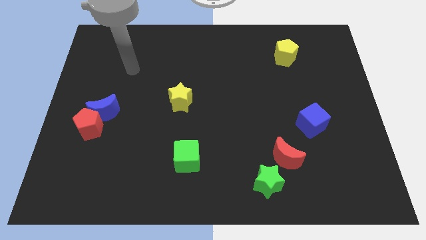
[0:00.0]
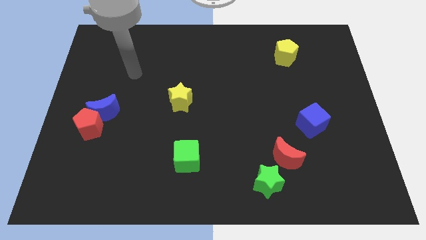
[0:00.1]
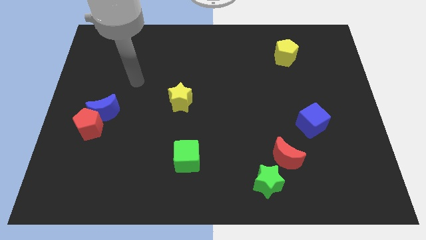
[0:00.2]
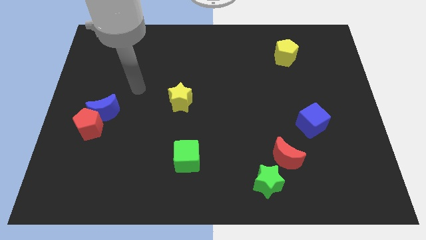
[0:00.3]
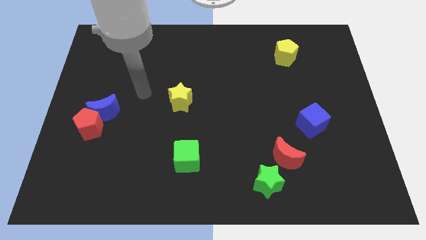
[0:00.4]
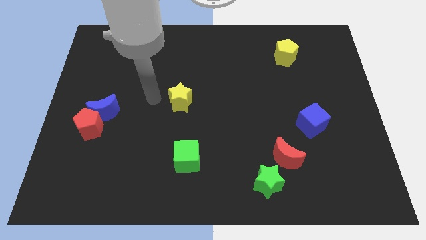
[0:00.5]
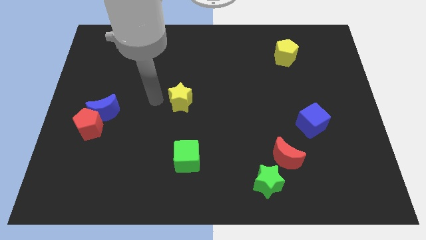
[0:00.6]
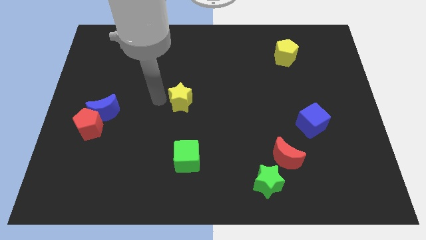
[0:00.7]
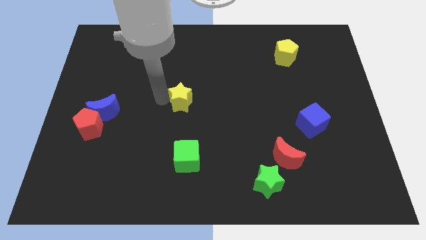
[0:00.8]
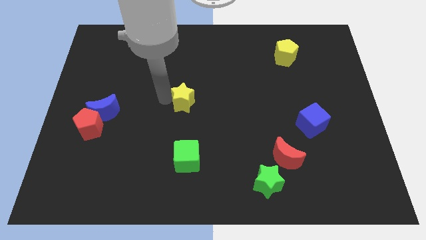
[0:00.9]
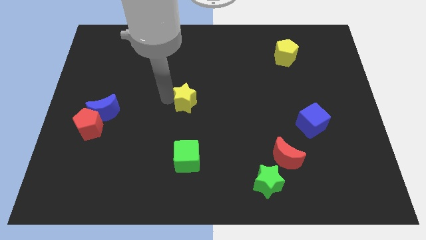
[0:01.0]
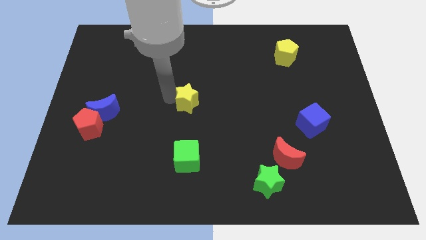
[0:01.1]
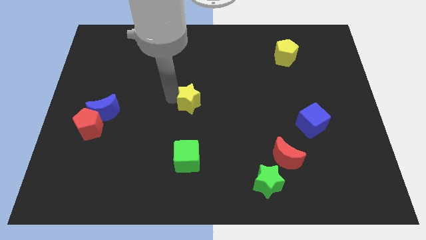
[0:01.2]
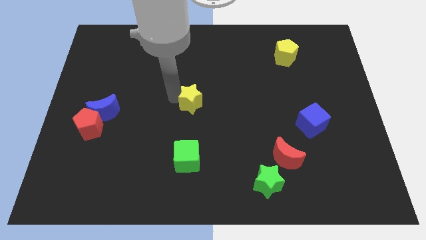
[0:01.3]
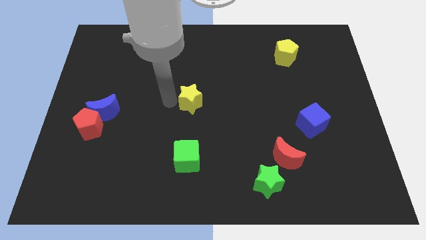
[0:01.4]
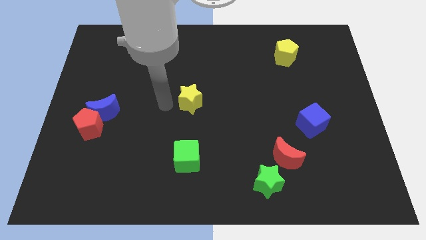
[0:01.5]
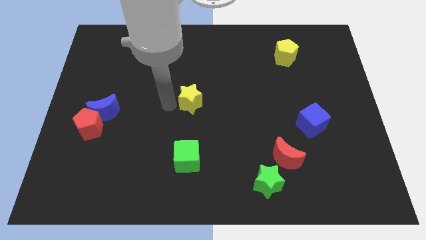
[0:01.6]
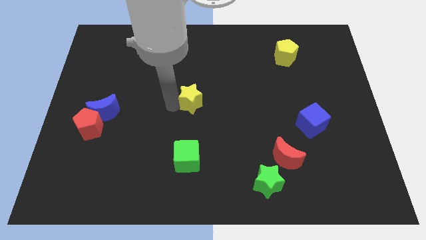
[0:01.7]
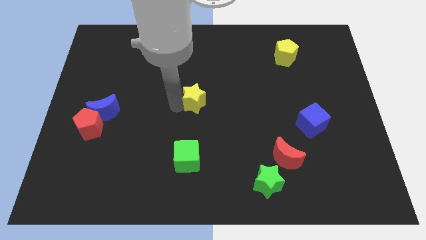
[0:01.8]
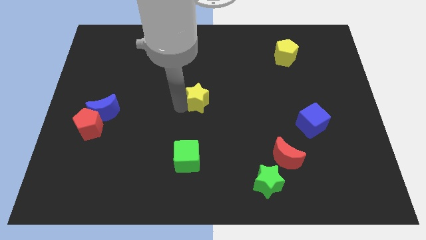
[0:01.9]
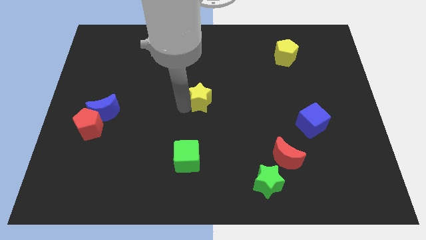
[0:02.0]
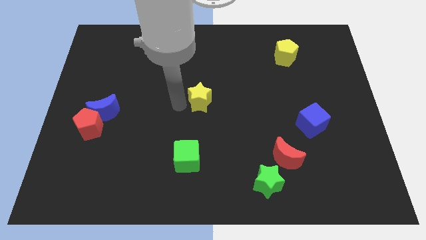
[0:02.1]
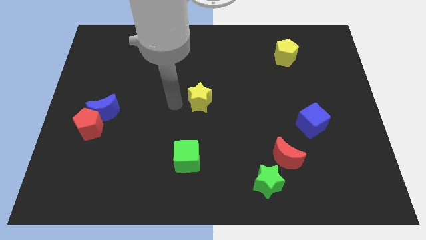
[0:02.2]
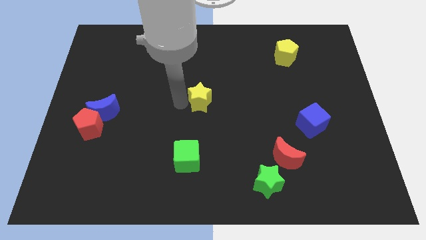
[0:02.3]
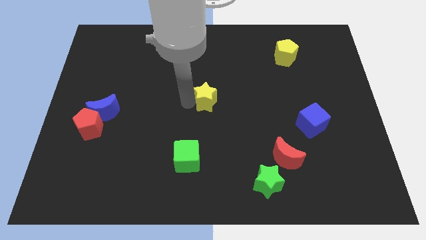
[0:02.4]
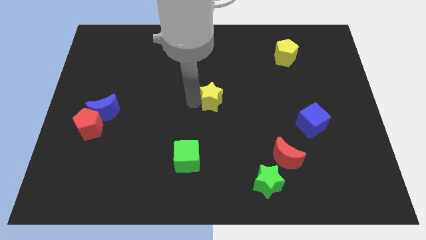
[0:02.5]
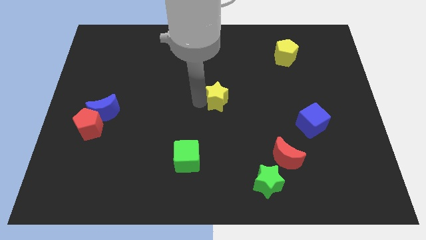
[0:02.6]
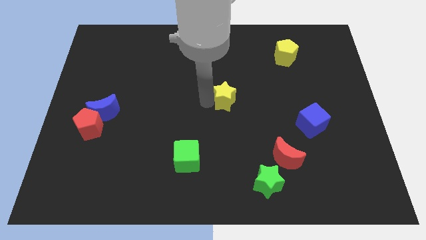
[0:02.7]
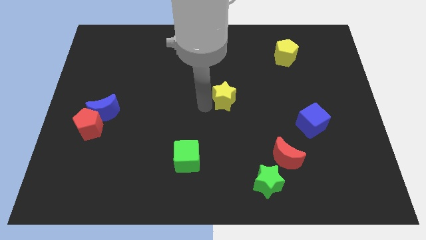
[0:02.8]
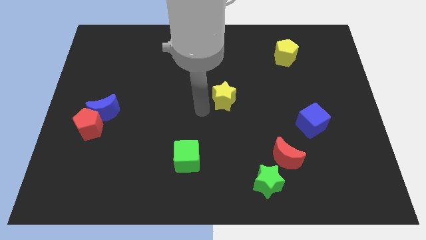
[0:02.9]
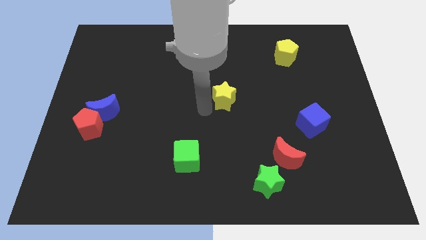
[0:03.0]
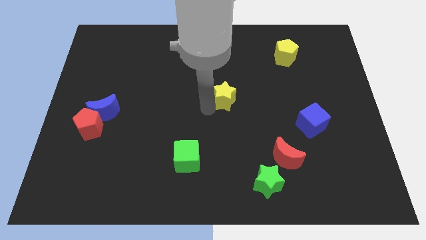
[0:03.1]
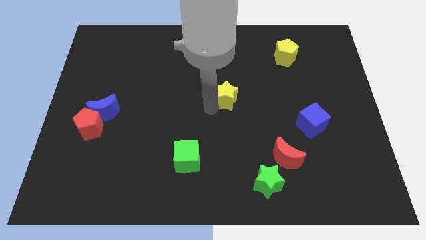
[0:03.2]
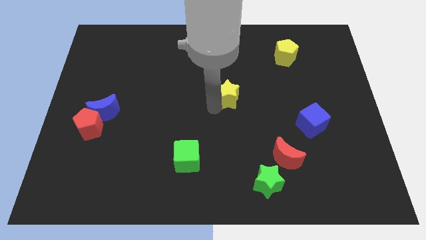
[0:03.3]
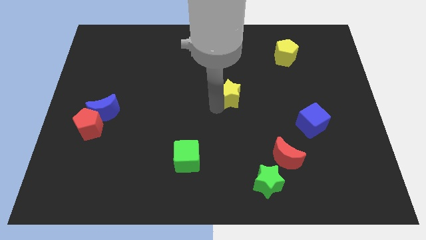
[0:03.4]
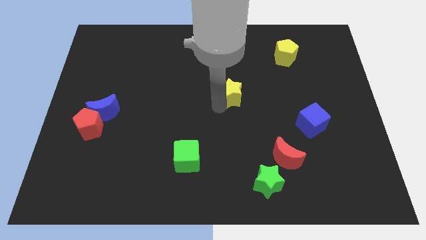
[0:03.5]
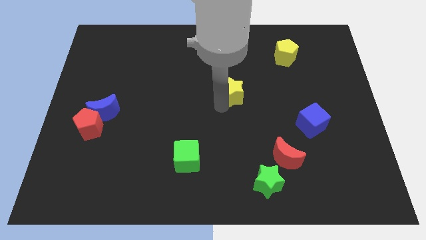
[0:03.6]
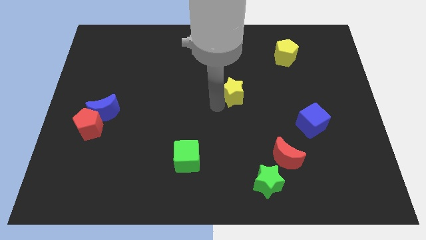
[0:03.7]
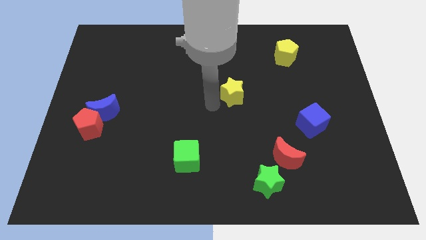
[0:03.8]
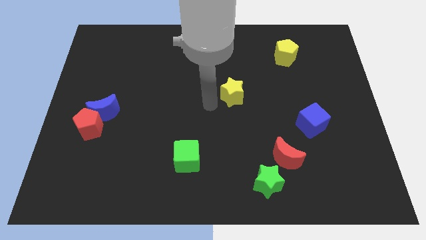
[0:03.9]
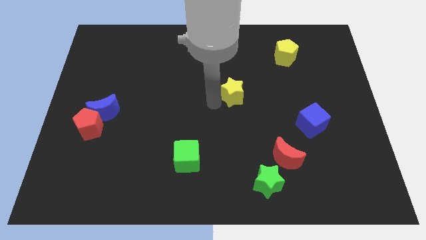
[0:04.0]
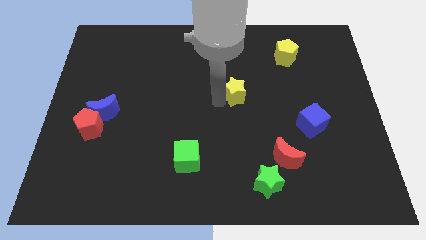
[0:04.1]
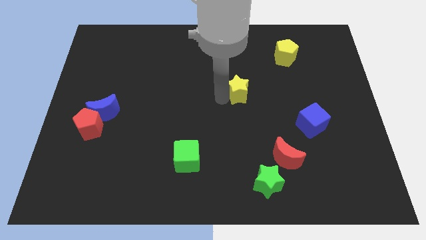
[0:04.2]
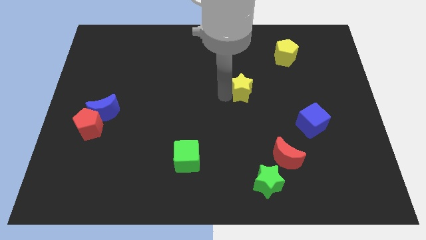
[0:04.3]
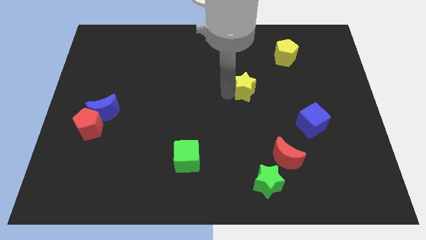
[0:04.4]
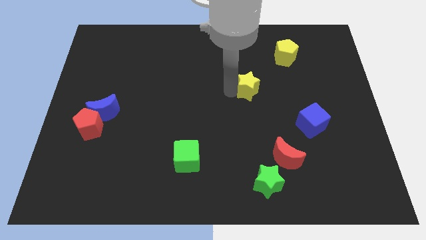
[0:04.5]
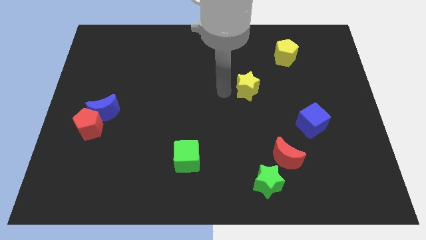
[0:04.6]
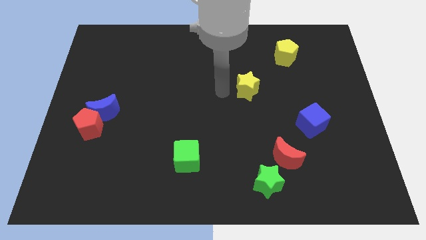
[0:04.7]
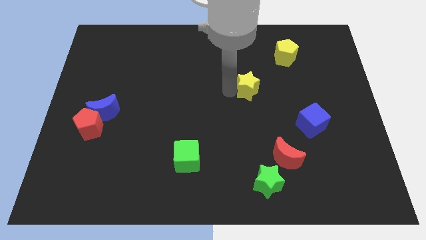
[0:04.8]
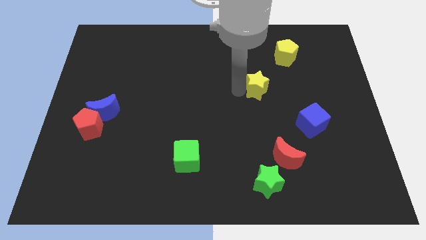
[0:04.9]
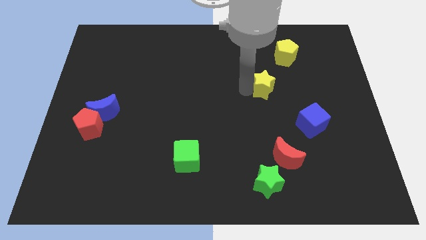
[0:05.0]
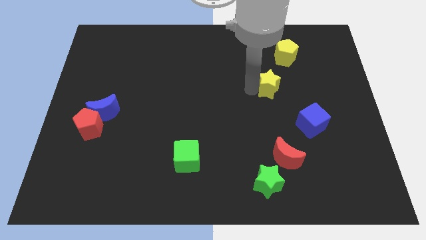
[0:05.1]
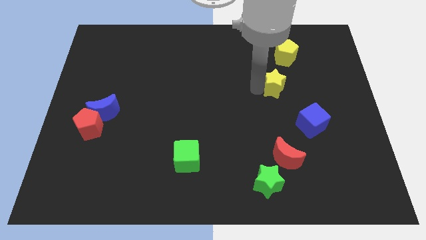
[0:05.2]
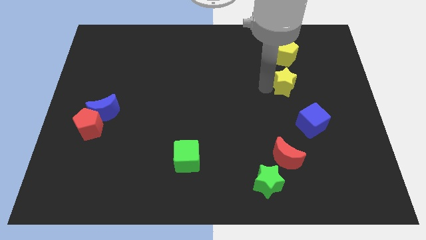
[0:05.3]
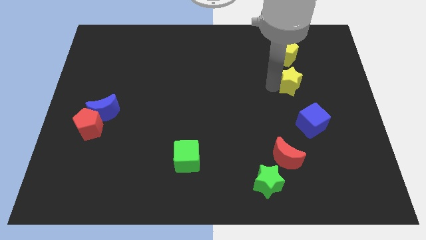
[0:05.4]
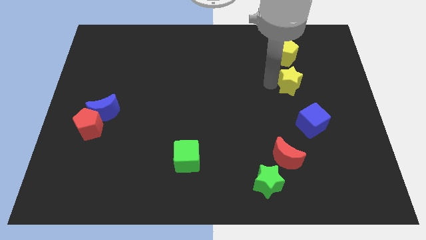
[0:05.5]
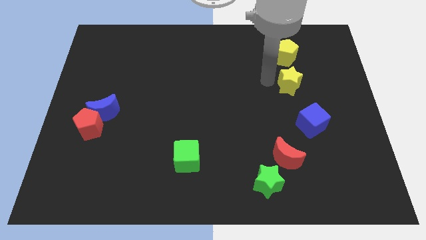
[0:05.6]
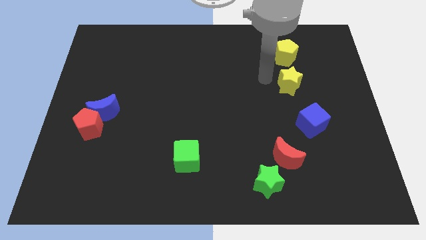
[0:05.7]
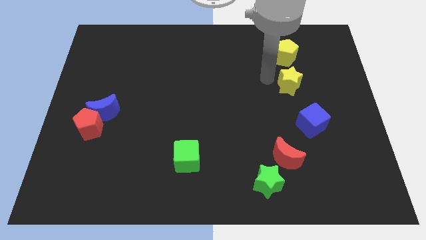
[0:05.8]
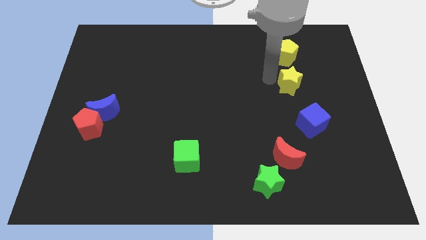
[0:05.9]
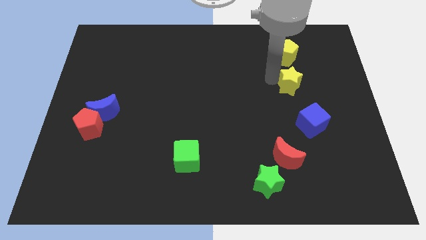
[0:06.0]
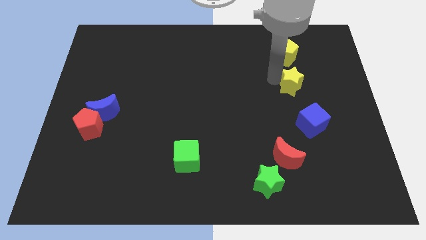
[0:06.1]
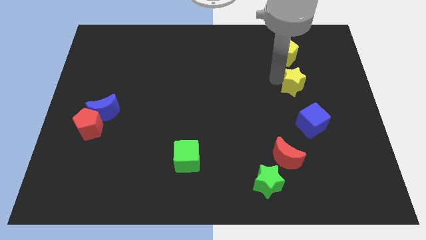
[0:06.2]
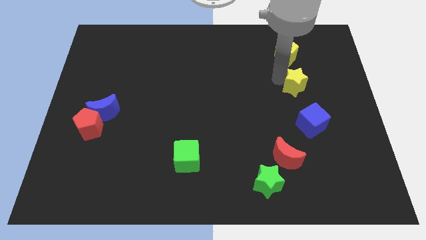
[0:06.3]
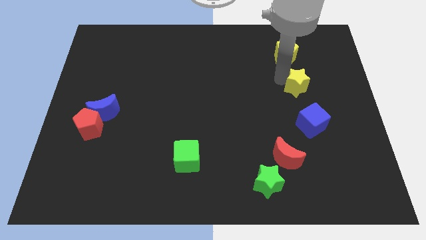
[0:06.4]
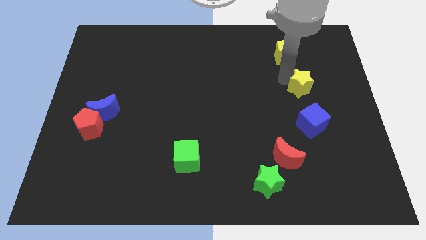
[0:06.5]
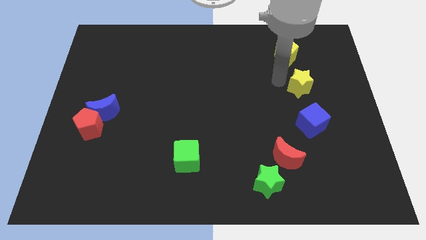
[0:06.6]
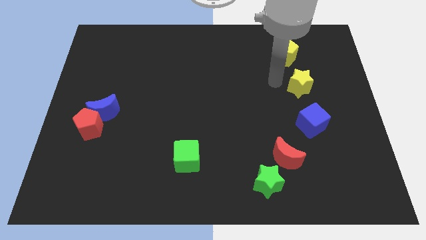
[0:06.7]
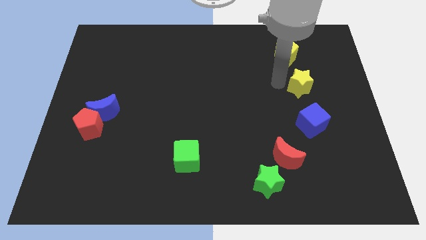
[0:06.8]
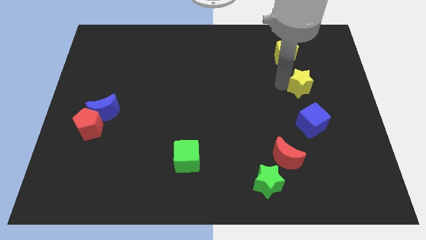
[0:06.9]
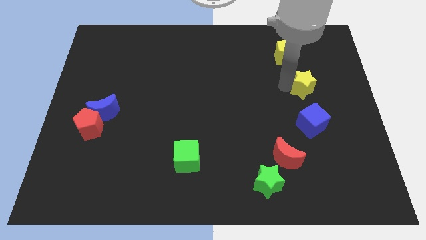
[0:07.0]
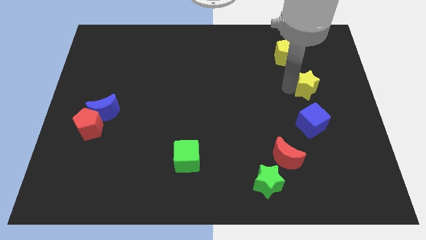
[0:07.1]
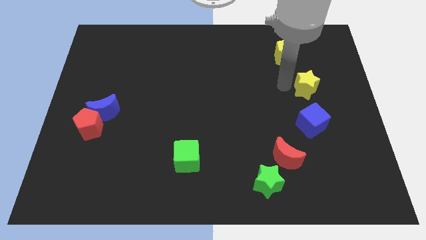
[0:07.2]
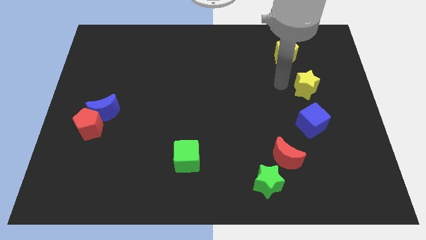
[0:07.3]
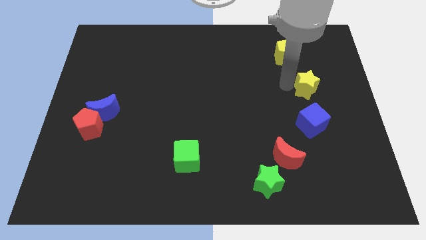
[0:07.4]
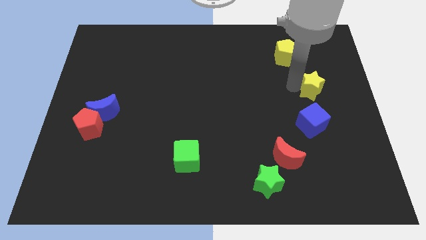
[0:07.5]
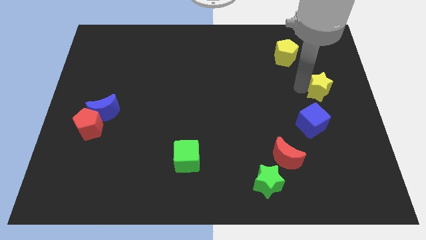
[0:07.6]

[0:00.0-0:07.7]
slide the yellow star to the right side of the board
